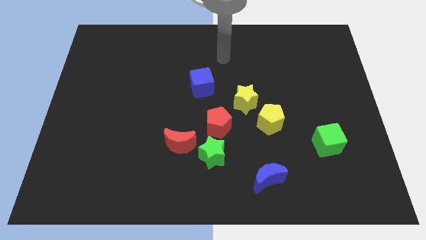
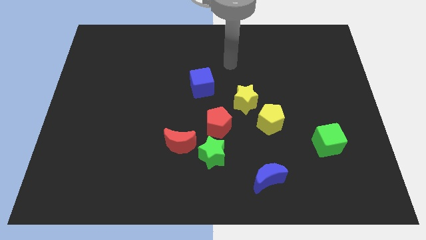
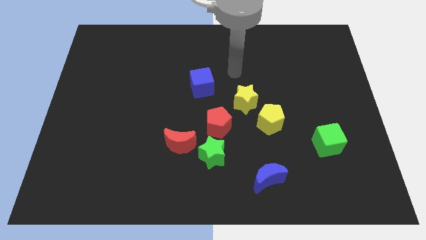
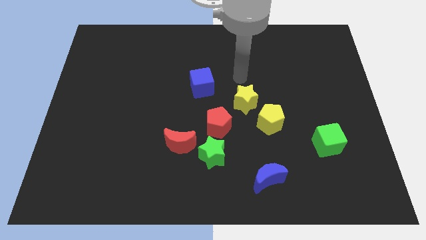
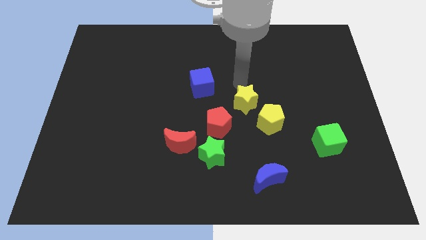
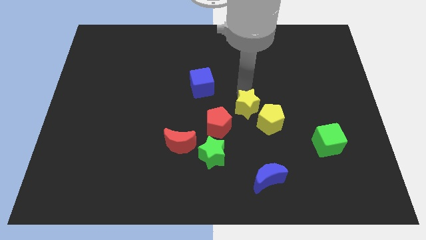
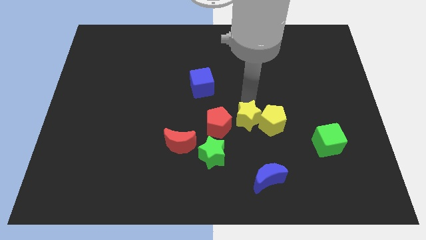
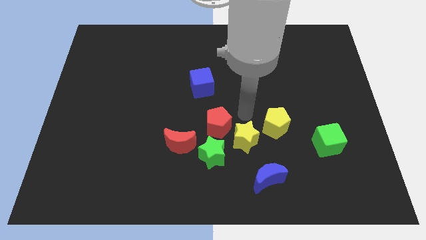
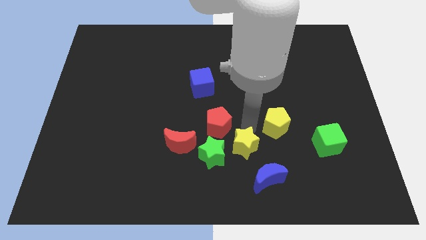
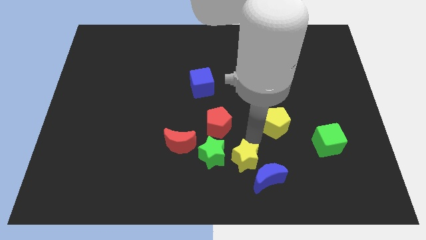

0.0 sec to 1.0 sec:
pull the yellow pentagon apart from the yellow star

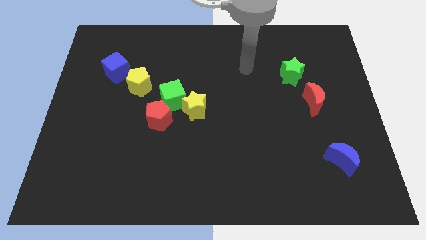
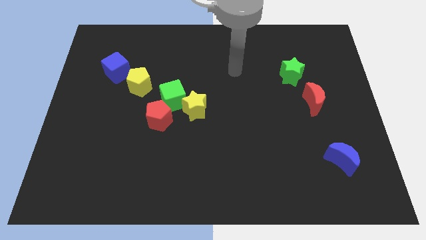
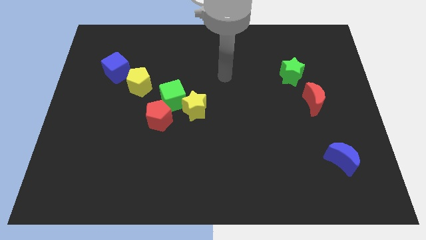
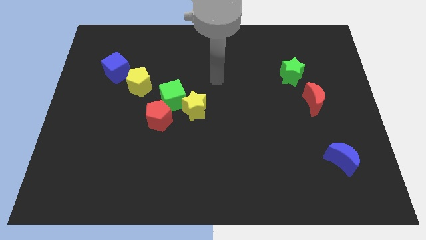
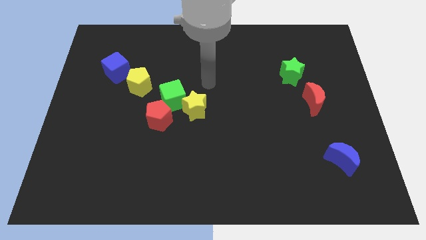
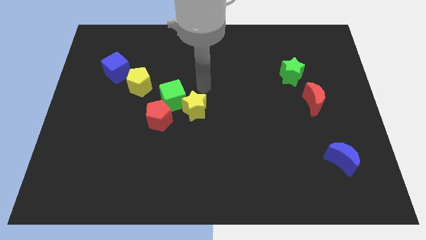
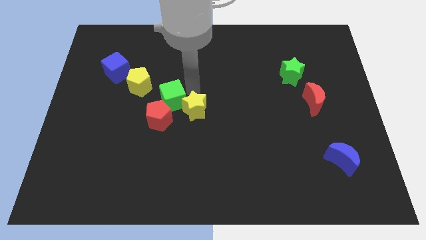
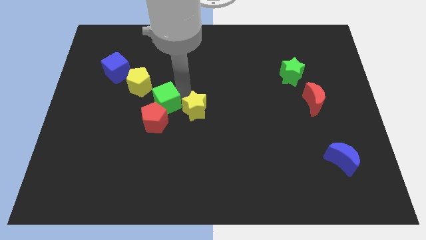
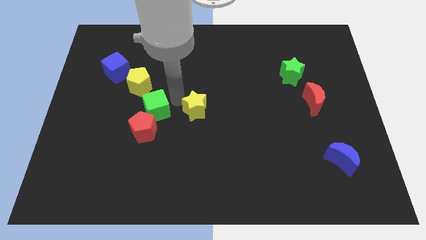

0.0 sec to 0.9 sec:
pull the yellow star apart from the green cube and red pentagon

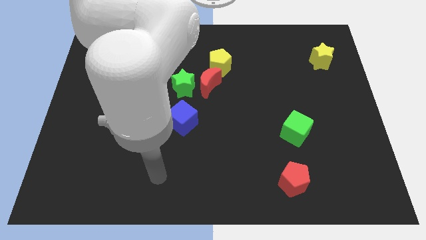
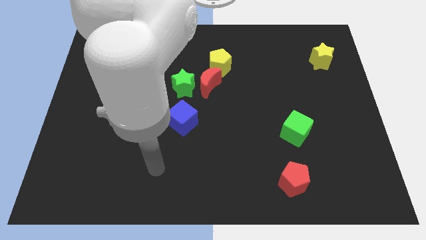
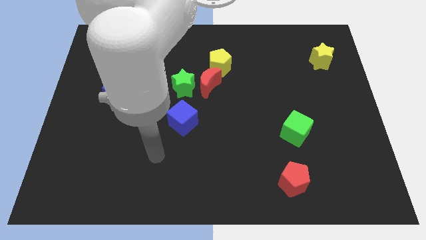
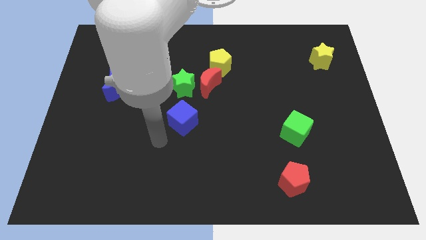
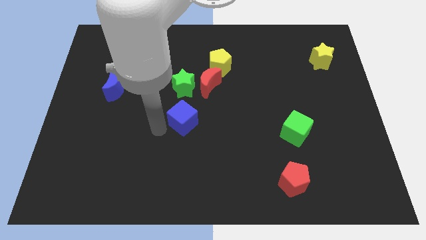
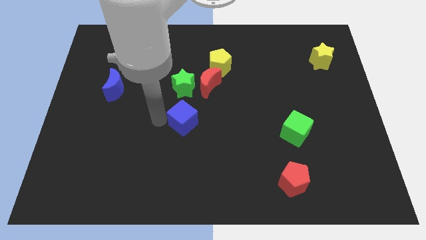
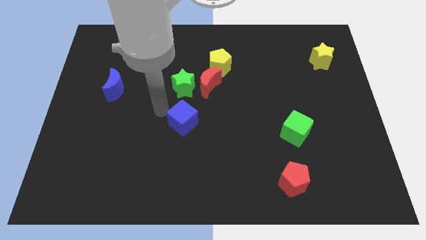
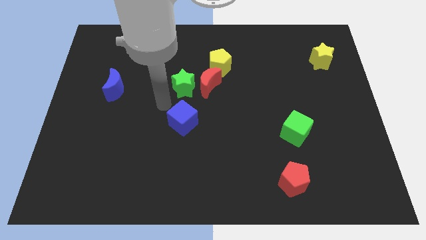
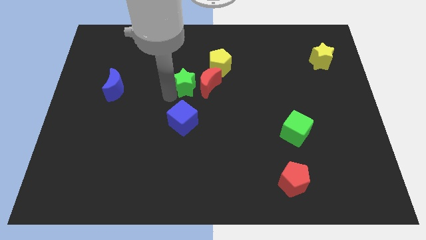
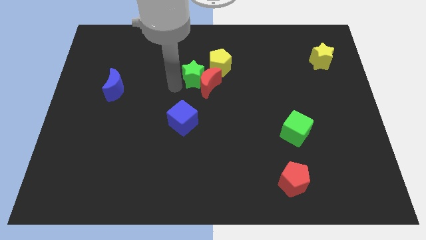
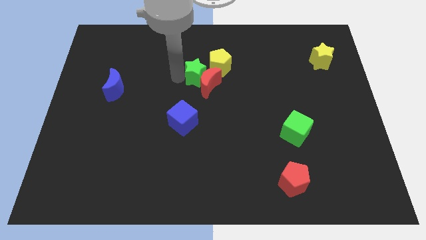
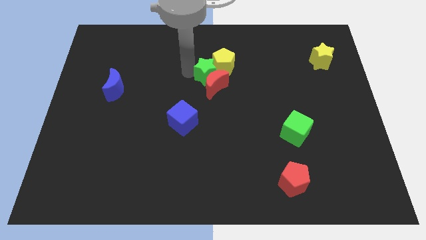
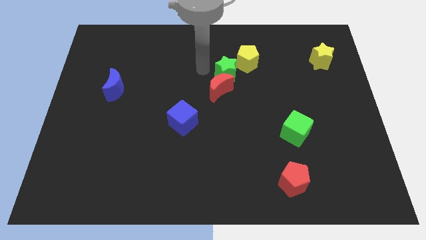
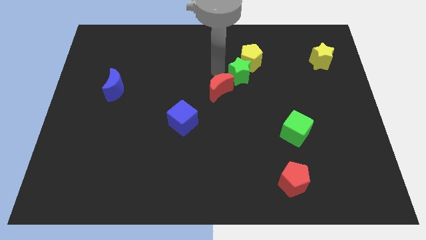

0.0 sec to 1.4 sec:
move the red moon away from the green star and yellow pentagon

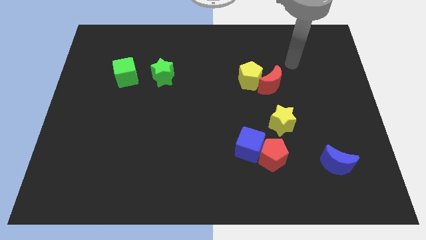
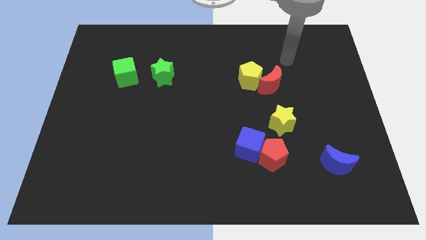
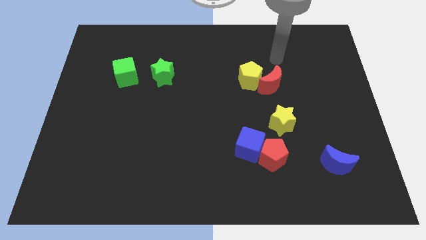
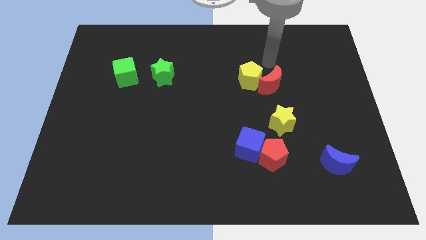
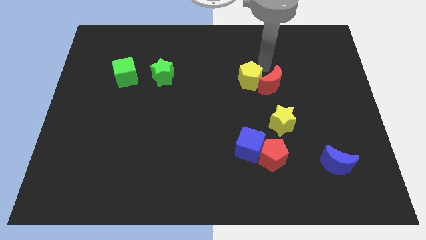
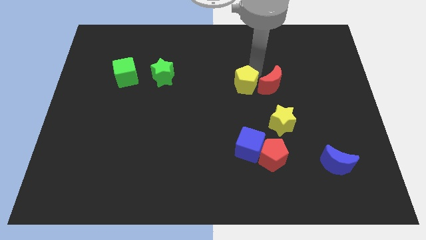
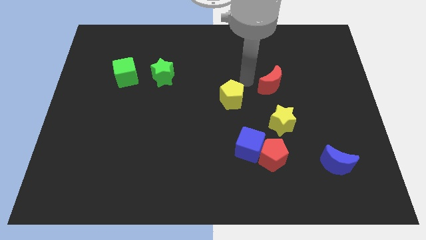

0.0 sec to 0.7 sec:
pull the red moon apart from the yellow pentagon

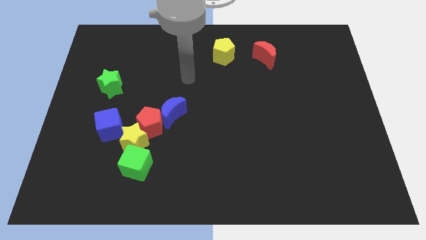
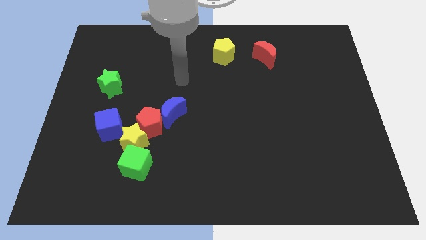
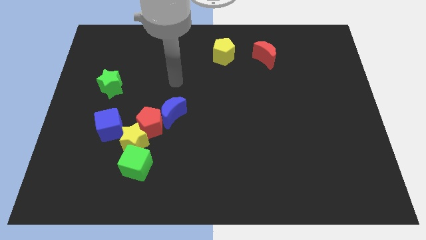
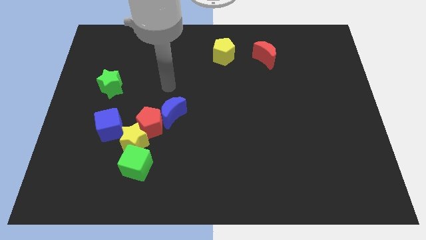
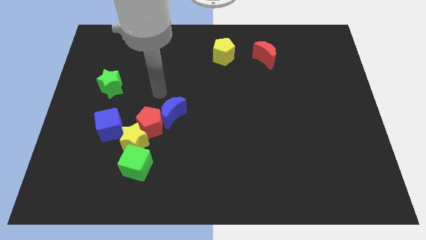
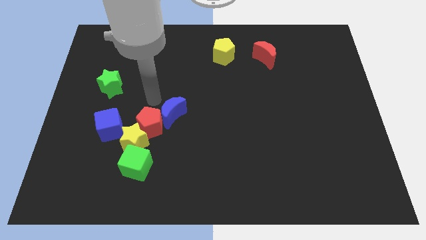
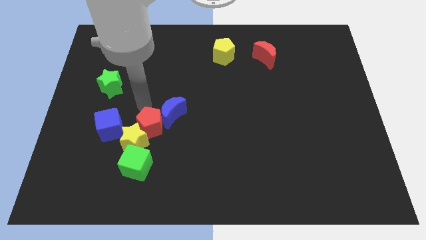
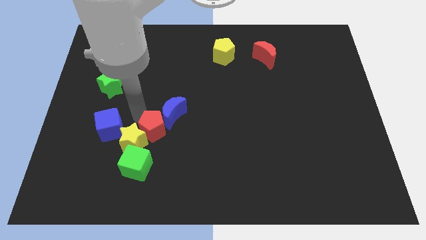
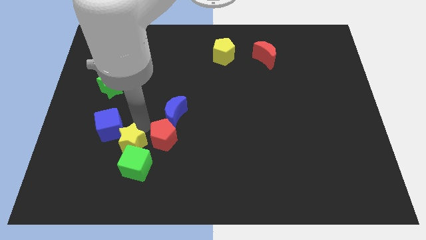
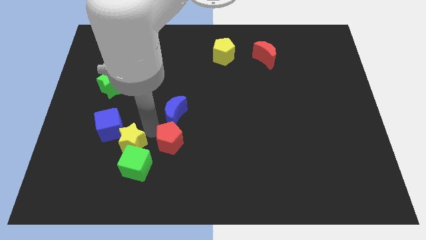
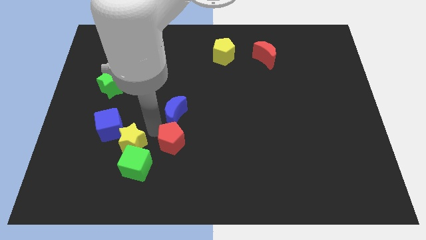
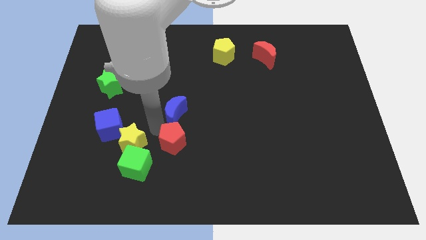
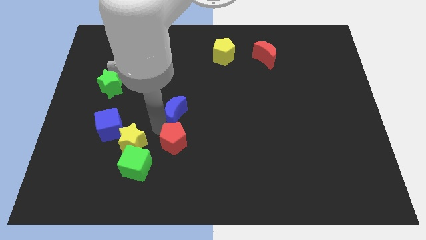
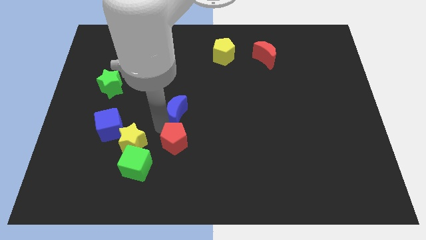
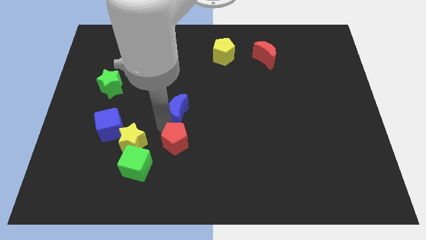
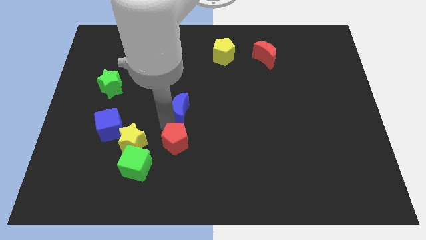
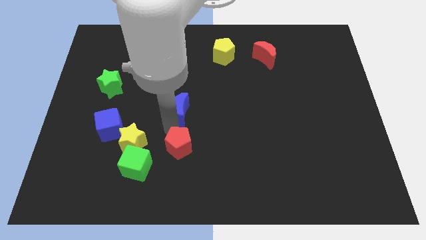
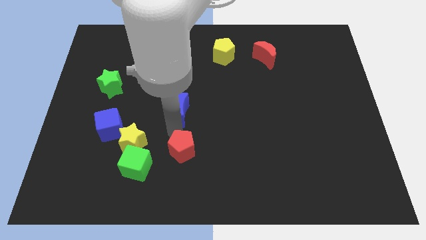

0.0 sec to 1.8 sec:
move the blue moon away from the red pentagon

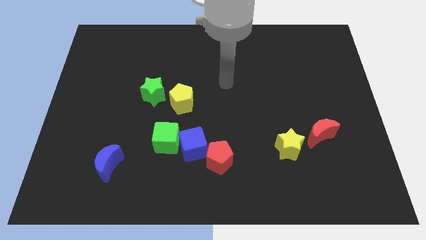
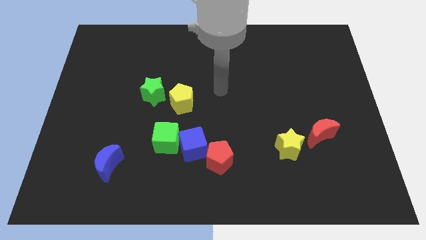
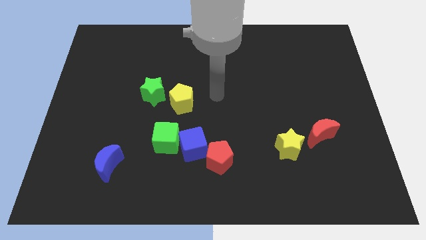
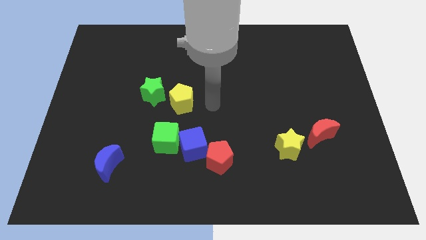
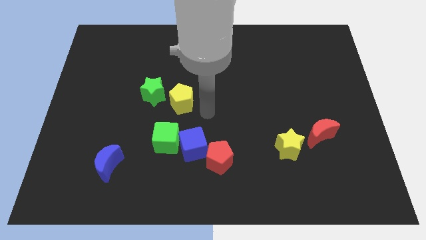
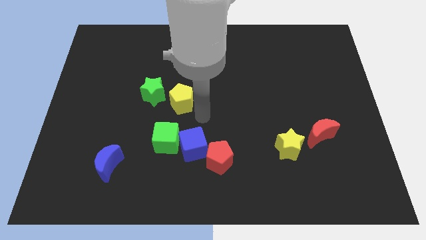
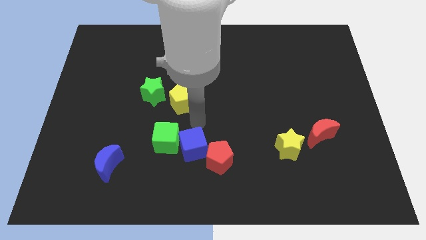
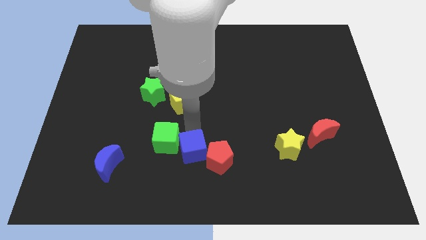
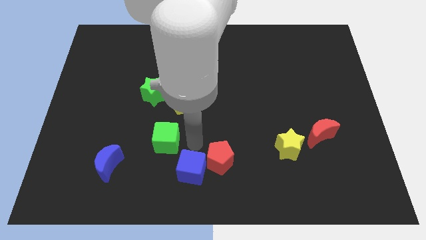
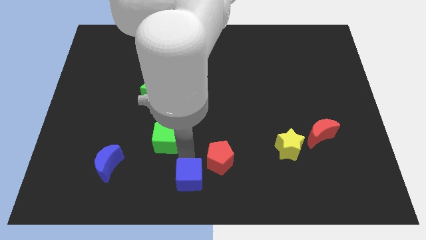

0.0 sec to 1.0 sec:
move the green cube away from the blue cube

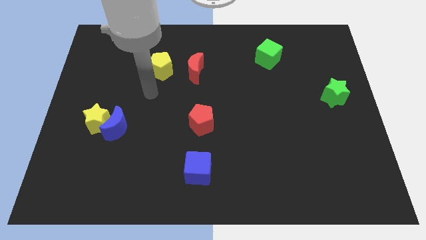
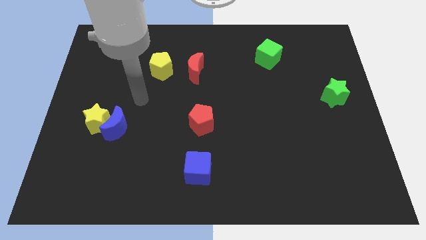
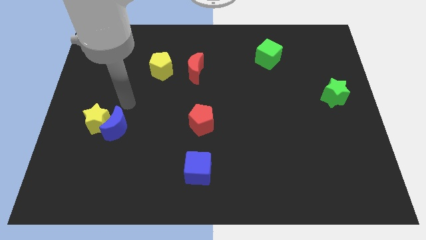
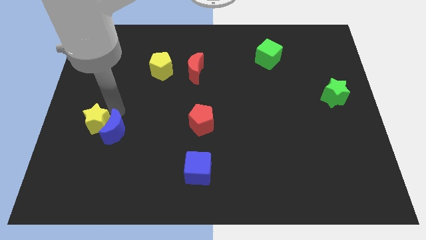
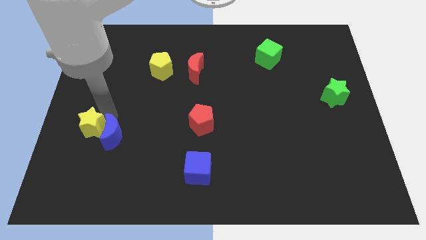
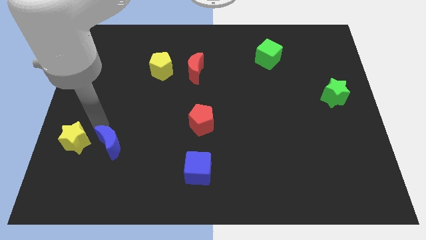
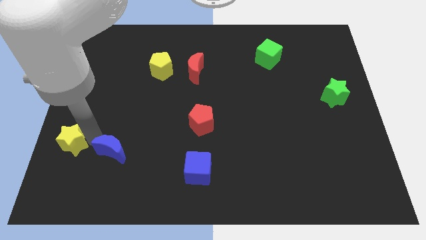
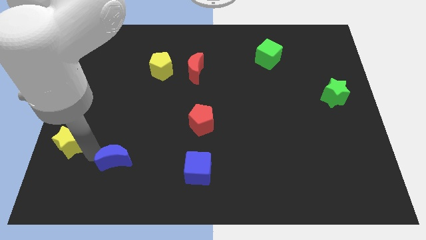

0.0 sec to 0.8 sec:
separate the blue moon from the yellow star

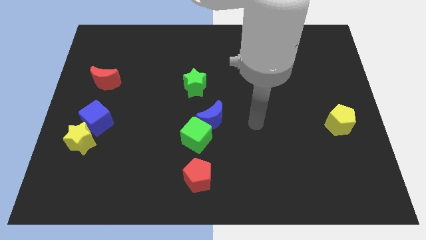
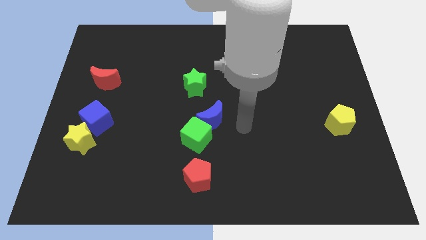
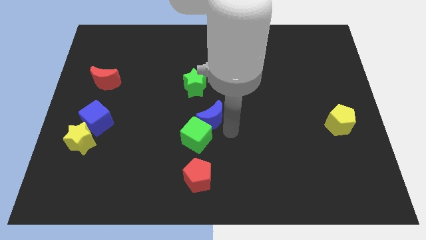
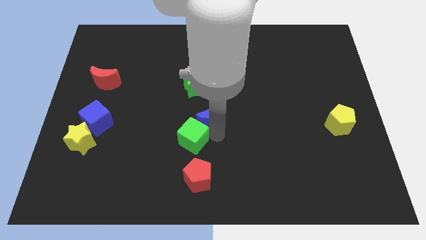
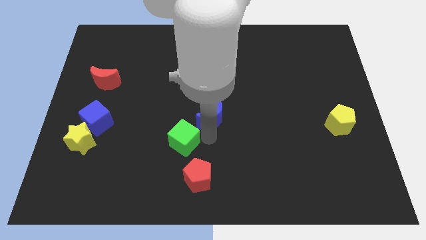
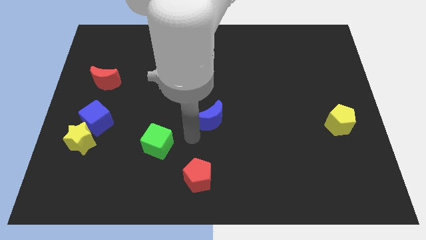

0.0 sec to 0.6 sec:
pull the blue moon apart from the green cube

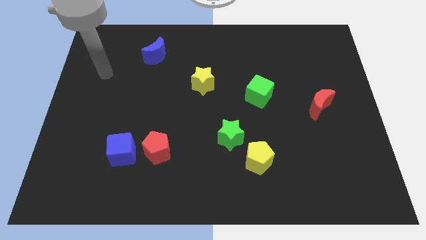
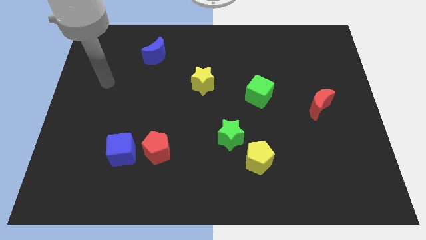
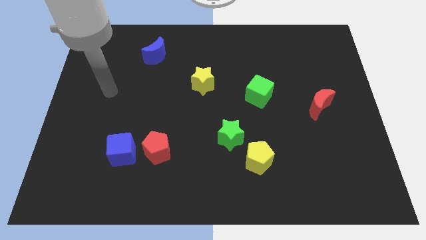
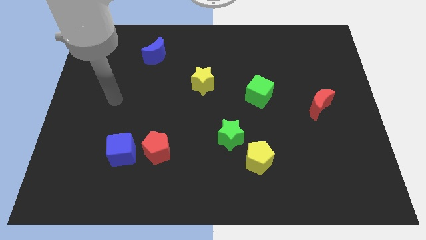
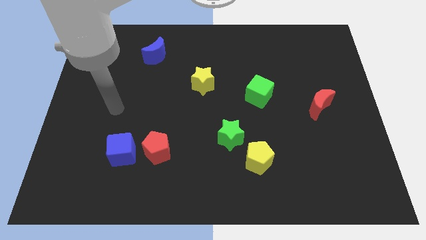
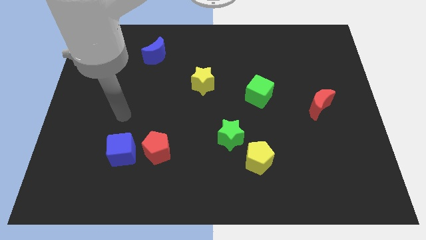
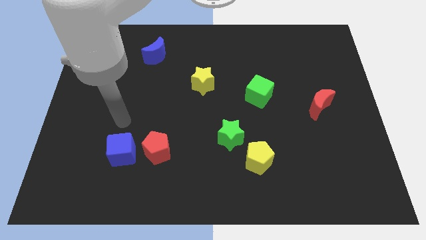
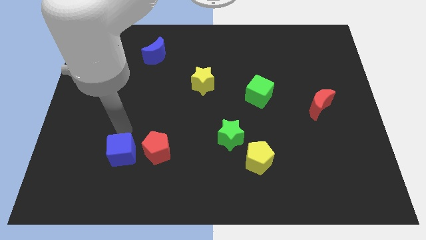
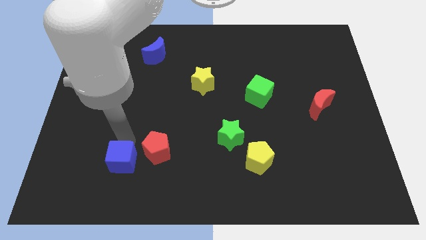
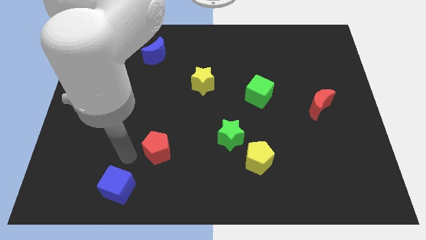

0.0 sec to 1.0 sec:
separate the red pentagon from the blue cube
